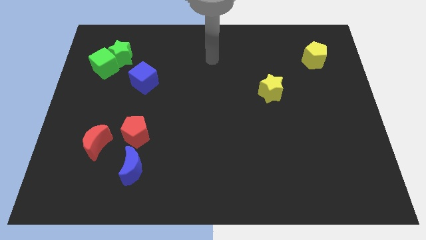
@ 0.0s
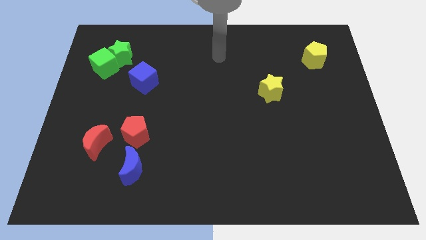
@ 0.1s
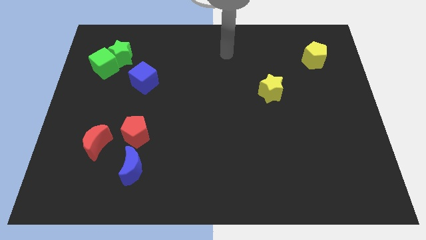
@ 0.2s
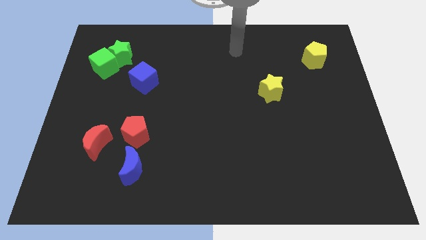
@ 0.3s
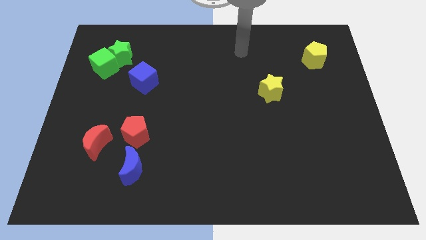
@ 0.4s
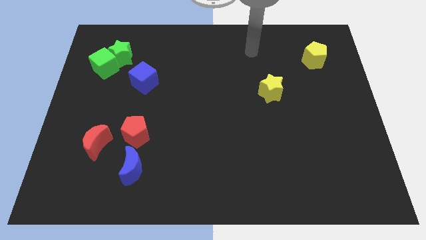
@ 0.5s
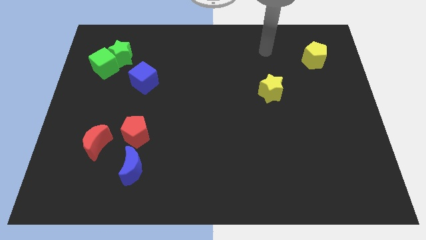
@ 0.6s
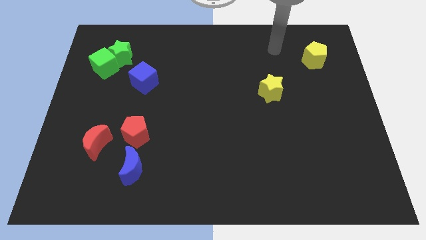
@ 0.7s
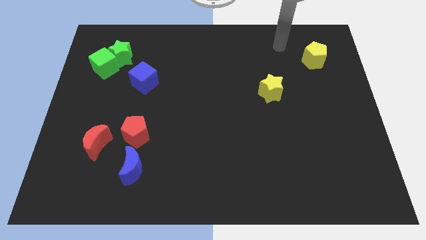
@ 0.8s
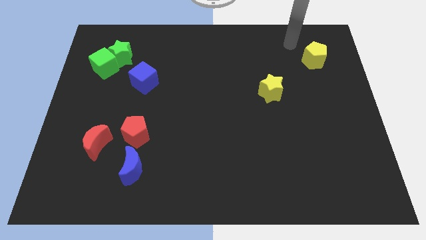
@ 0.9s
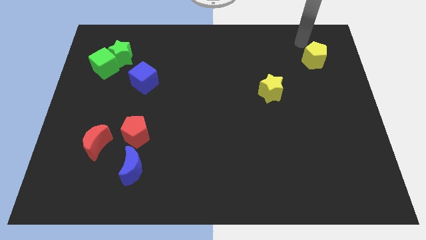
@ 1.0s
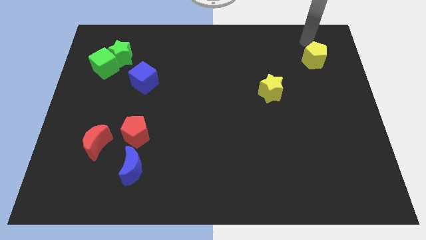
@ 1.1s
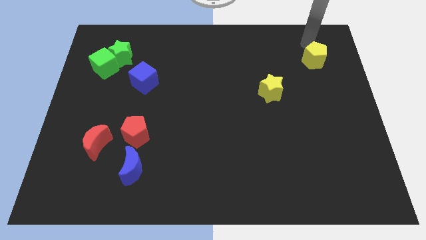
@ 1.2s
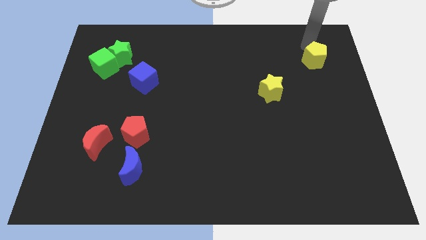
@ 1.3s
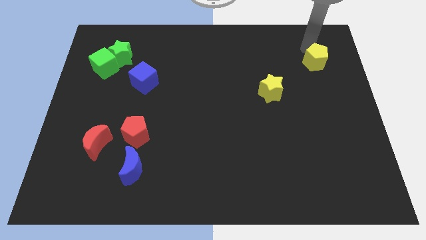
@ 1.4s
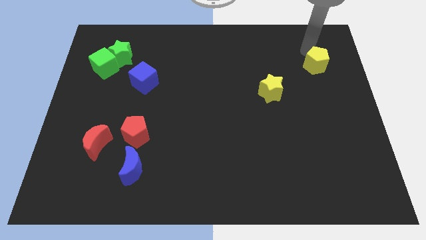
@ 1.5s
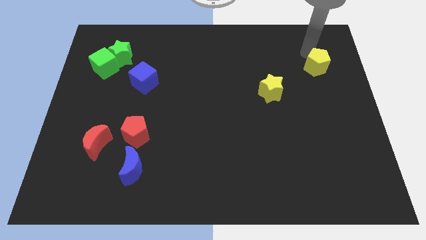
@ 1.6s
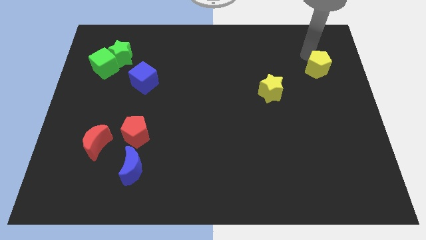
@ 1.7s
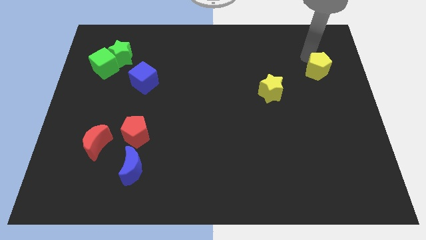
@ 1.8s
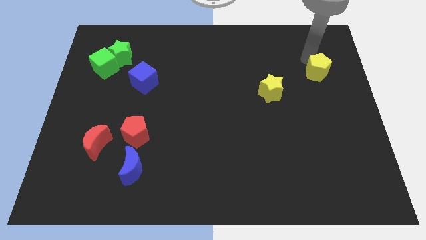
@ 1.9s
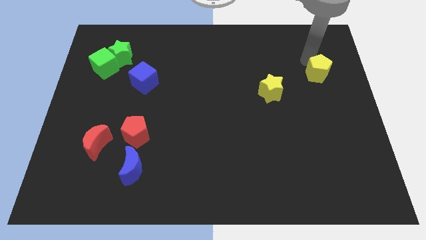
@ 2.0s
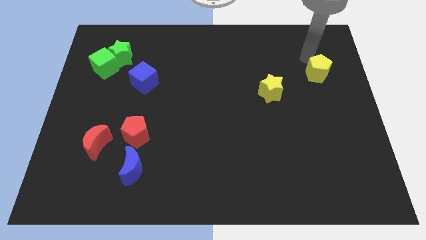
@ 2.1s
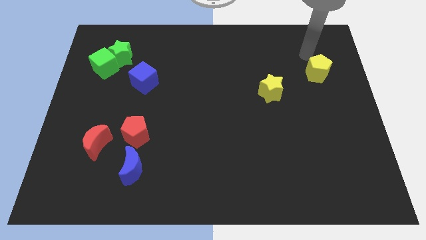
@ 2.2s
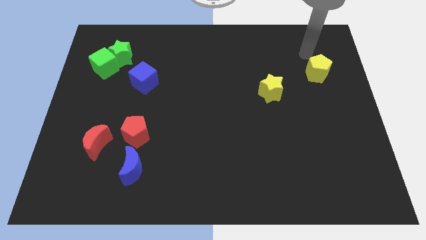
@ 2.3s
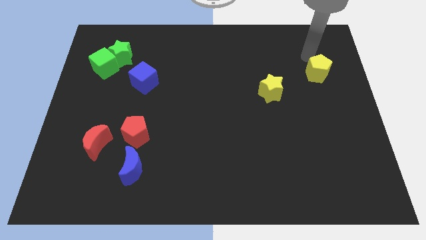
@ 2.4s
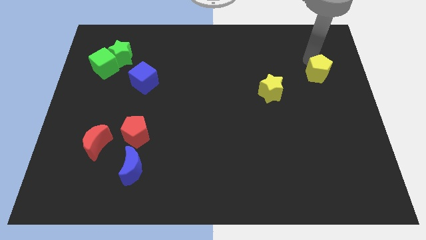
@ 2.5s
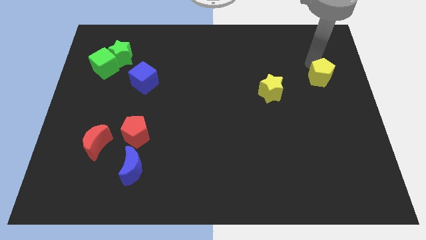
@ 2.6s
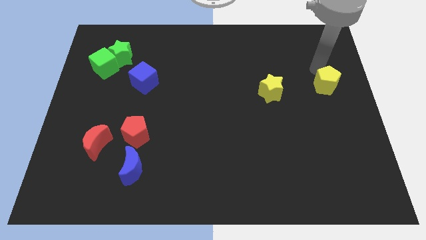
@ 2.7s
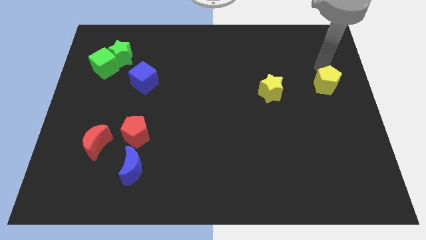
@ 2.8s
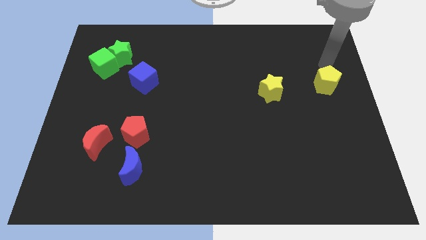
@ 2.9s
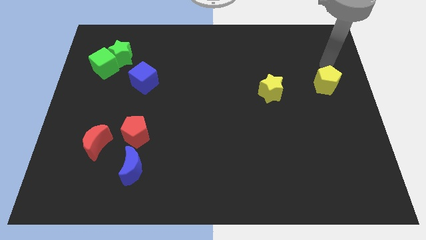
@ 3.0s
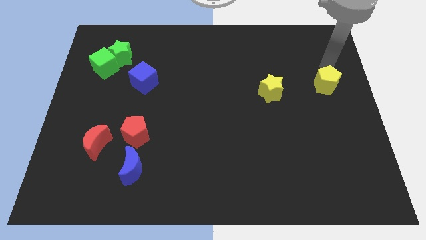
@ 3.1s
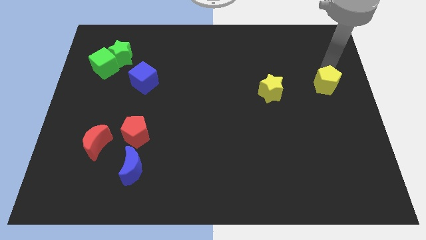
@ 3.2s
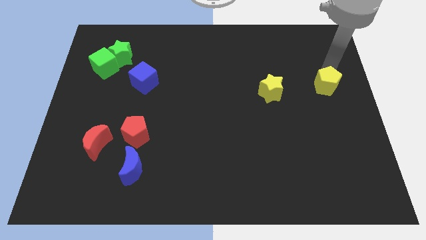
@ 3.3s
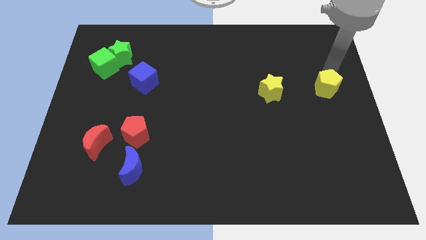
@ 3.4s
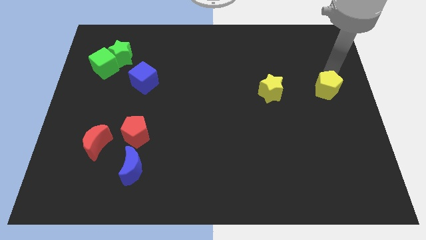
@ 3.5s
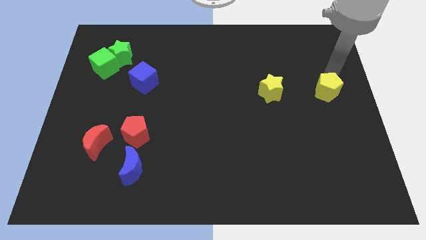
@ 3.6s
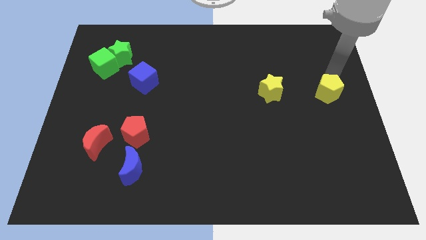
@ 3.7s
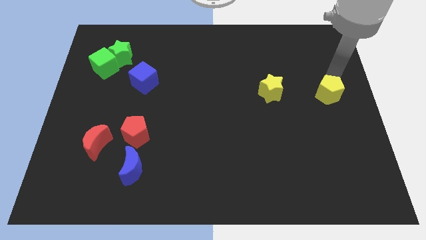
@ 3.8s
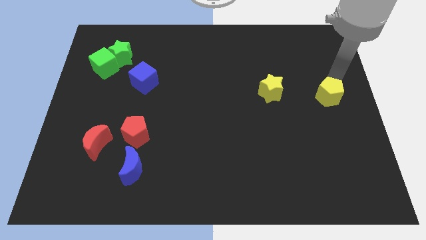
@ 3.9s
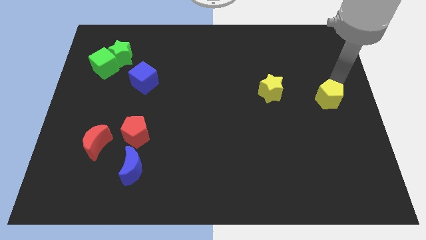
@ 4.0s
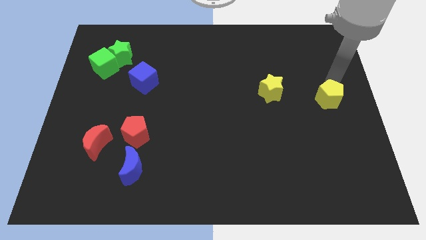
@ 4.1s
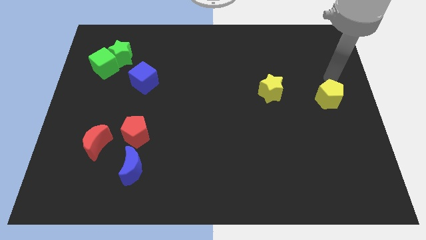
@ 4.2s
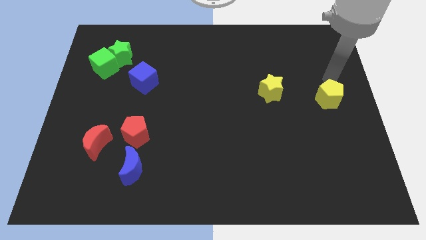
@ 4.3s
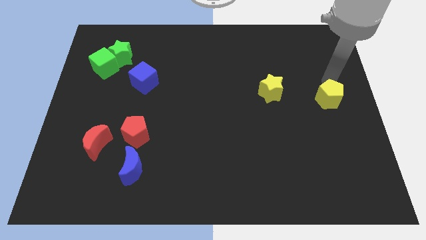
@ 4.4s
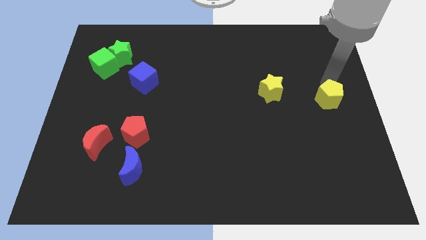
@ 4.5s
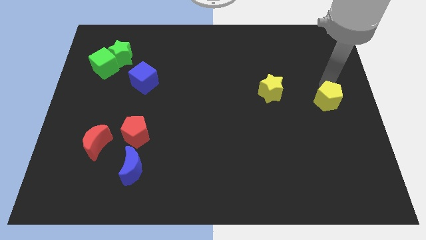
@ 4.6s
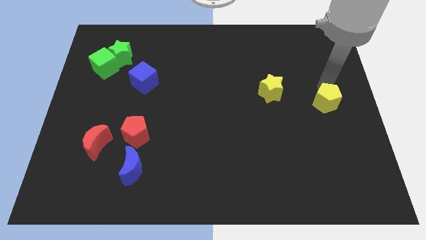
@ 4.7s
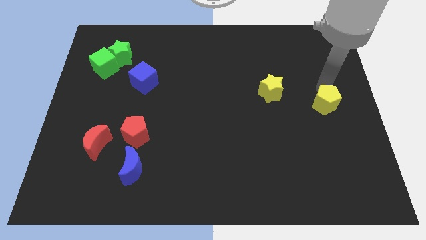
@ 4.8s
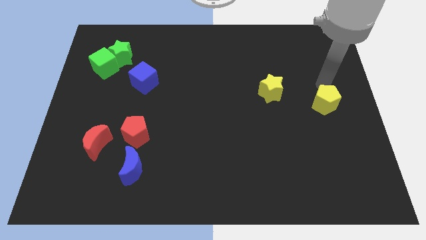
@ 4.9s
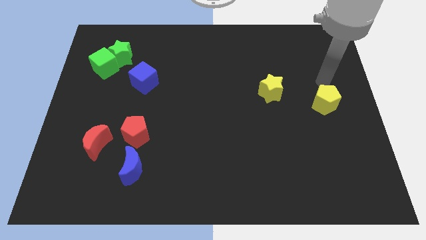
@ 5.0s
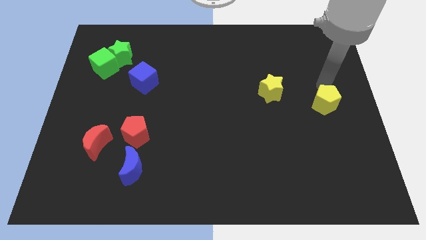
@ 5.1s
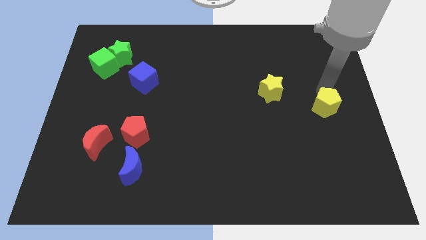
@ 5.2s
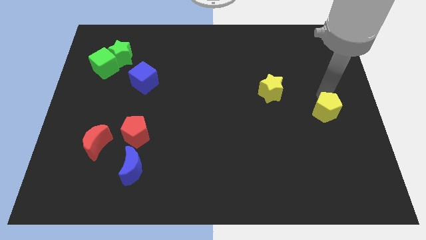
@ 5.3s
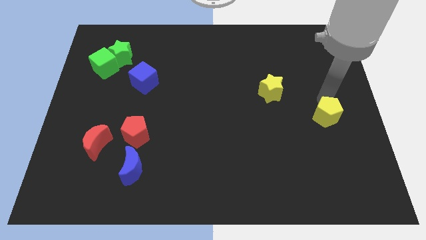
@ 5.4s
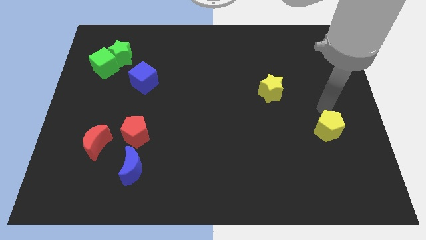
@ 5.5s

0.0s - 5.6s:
slide the yellow pentagon down

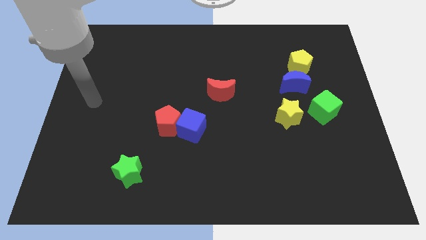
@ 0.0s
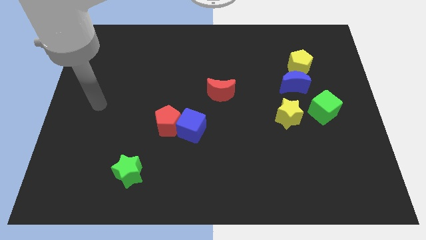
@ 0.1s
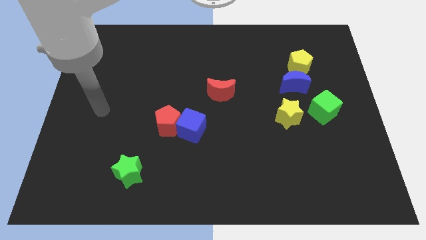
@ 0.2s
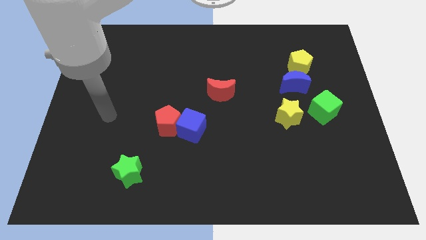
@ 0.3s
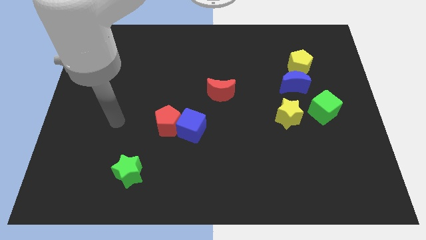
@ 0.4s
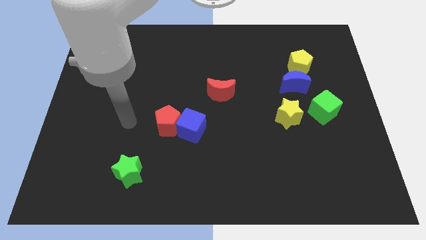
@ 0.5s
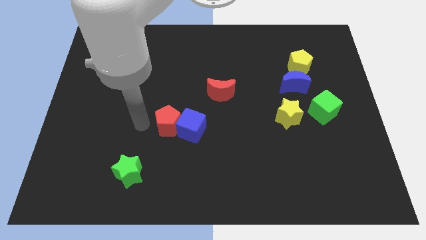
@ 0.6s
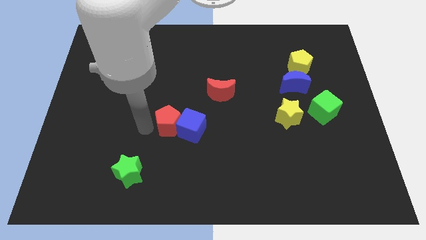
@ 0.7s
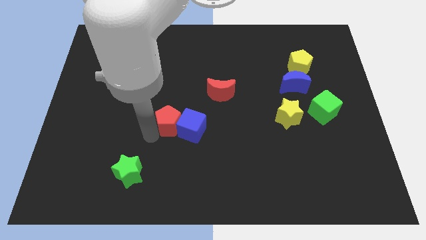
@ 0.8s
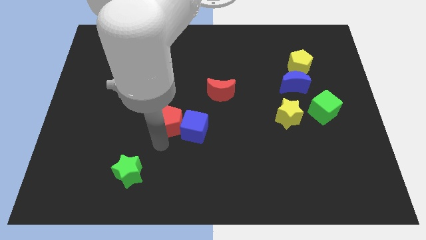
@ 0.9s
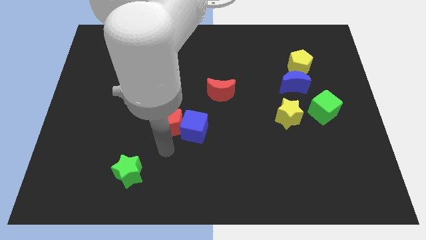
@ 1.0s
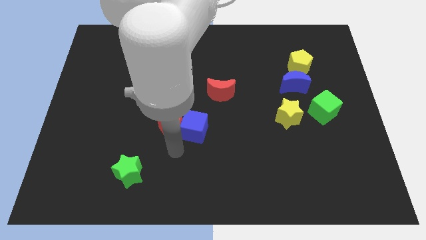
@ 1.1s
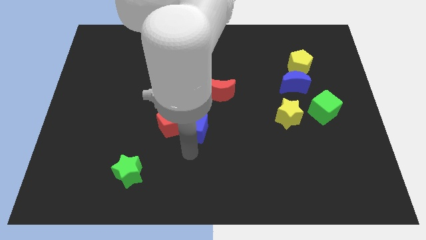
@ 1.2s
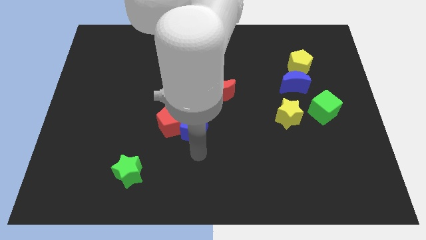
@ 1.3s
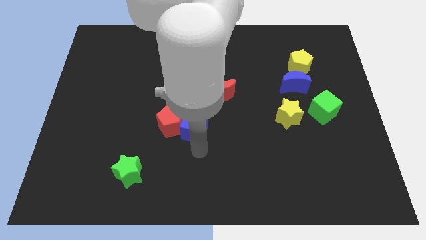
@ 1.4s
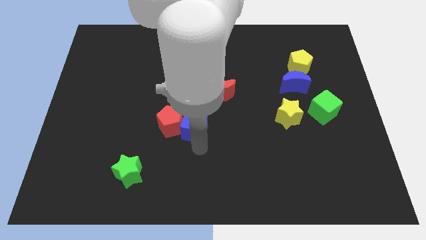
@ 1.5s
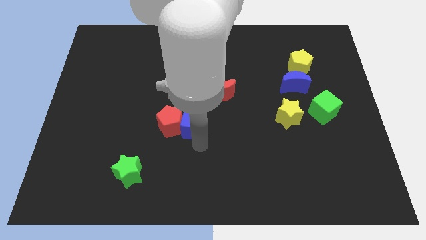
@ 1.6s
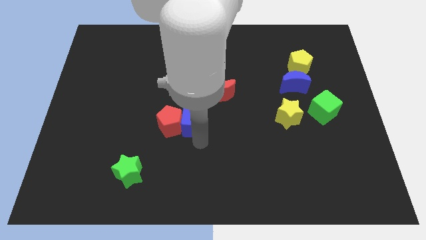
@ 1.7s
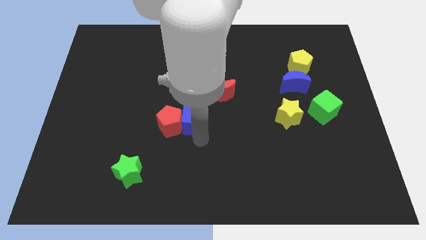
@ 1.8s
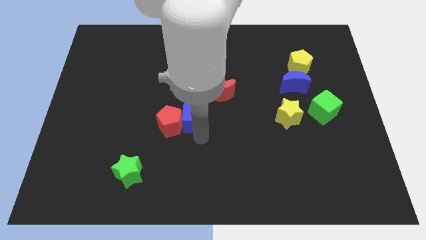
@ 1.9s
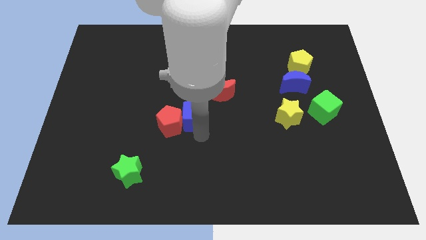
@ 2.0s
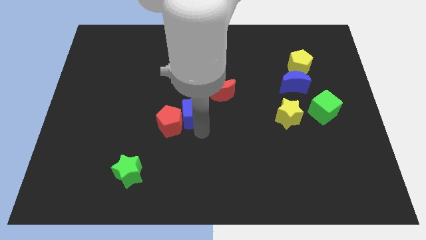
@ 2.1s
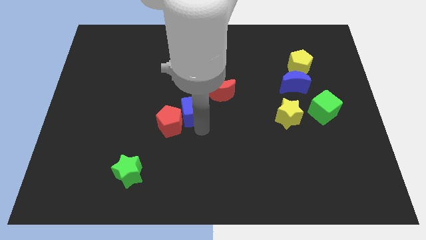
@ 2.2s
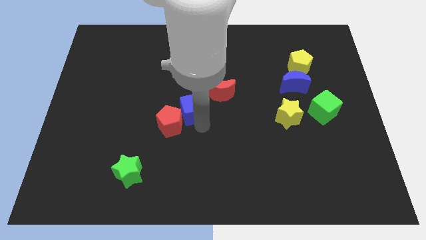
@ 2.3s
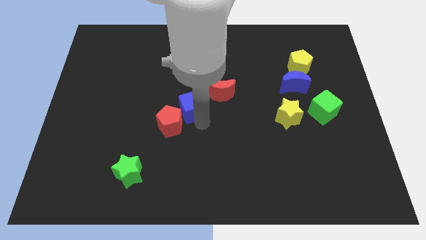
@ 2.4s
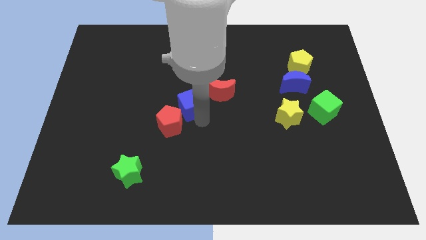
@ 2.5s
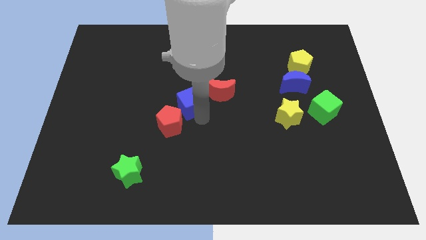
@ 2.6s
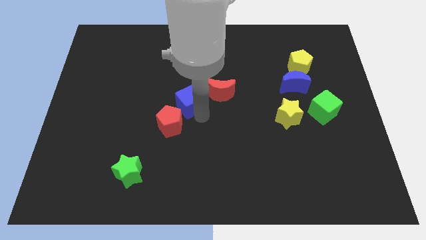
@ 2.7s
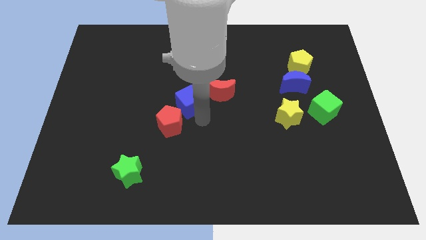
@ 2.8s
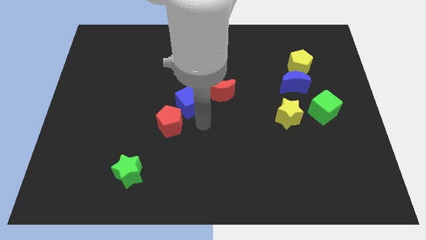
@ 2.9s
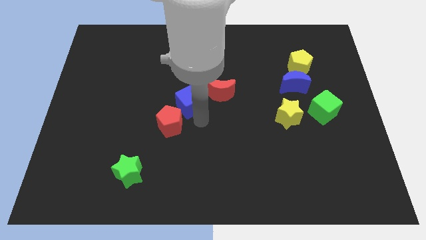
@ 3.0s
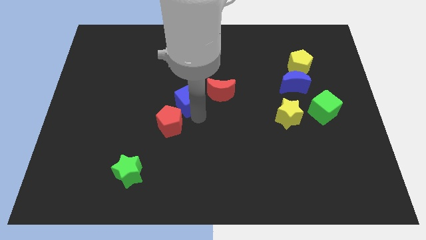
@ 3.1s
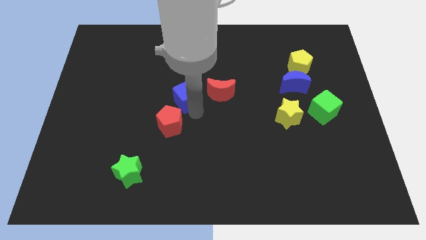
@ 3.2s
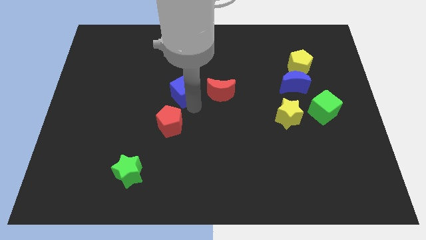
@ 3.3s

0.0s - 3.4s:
push the blue cube up and left a little
